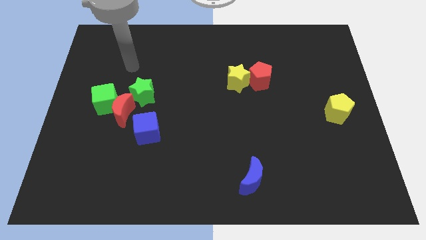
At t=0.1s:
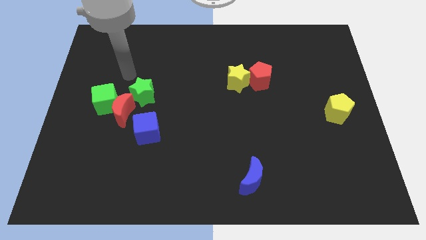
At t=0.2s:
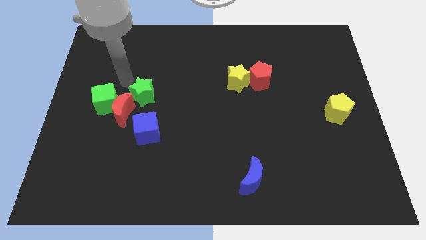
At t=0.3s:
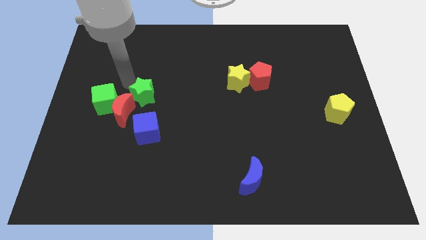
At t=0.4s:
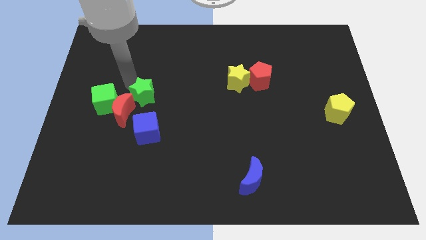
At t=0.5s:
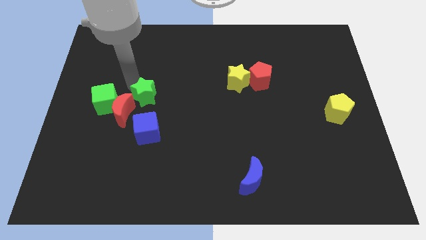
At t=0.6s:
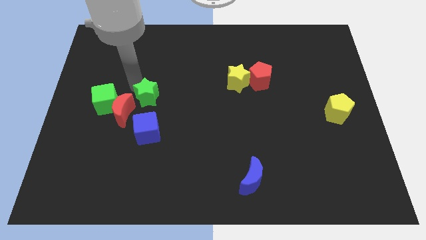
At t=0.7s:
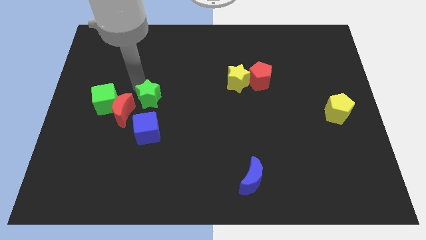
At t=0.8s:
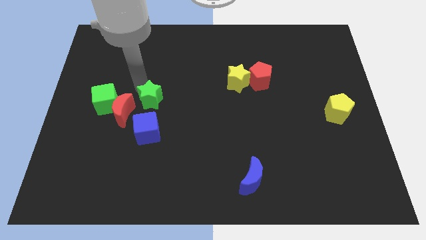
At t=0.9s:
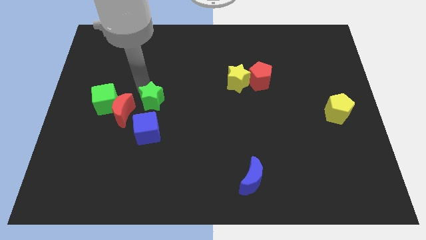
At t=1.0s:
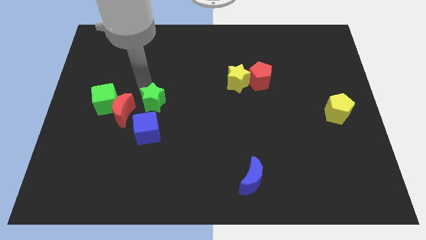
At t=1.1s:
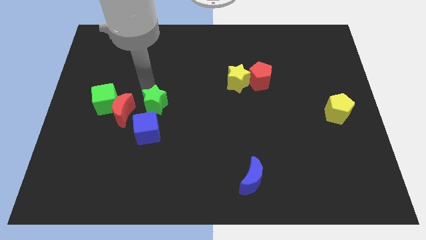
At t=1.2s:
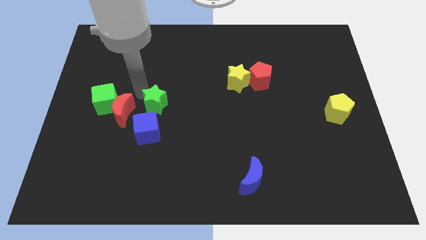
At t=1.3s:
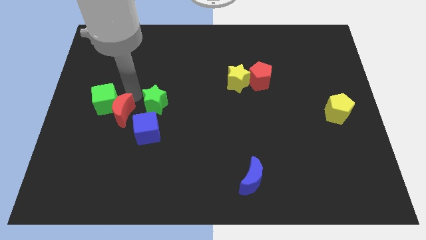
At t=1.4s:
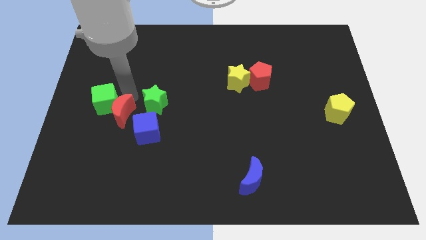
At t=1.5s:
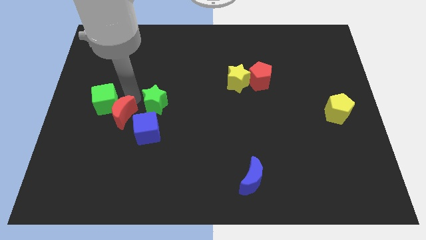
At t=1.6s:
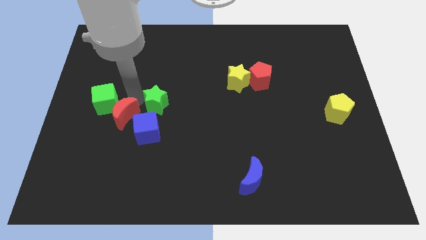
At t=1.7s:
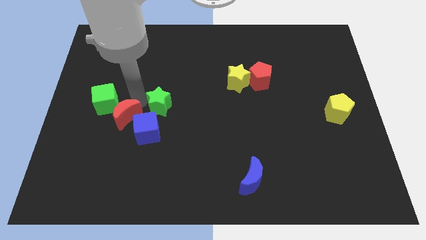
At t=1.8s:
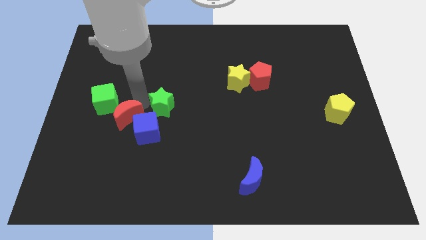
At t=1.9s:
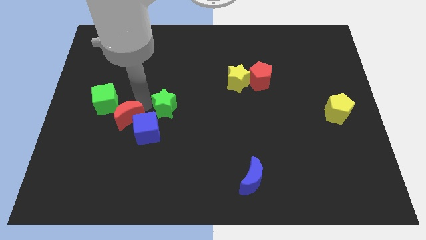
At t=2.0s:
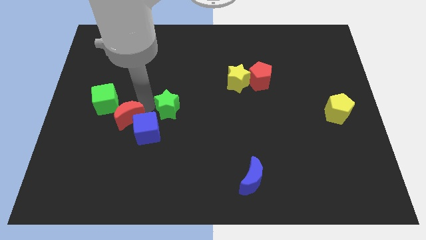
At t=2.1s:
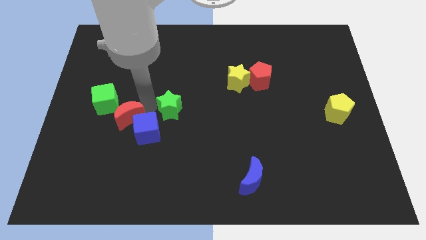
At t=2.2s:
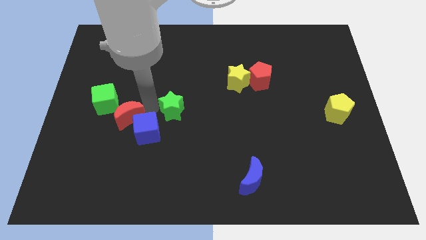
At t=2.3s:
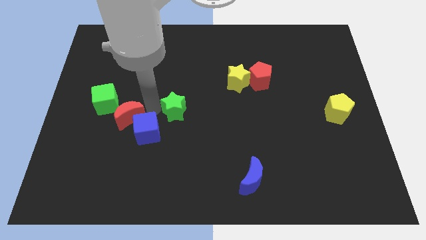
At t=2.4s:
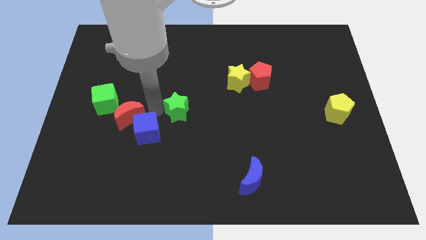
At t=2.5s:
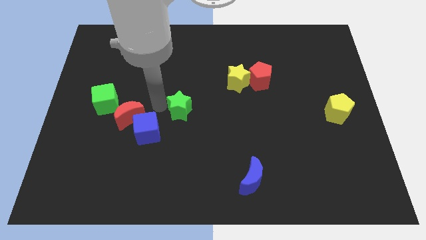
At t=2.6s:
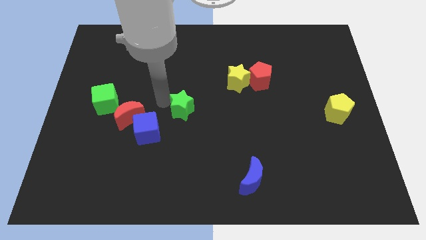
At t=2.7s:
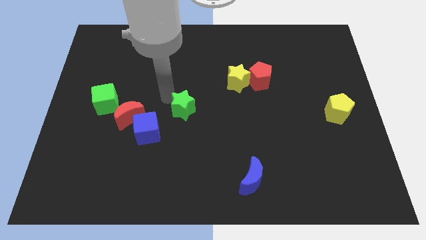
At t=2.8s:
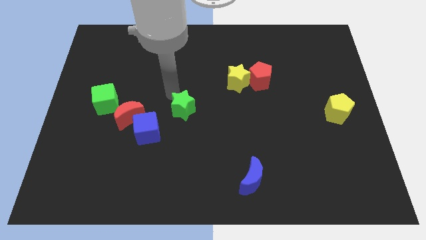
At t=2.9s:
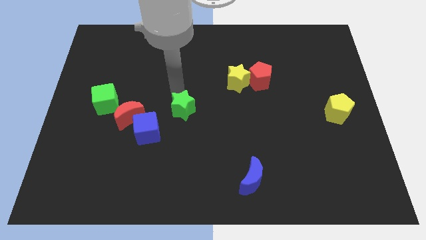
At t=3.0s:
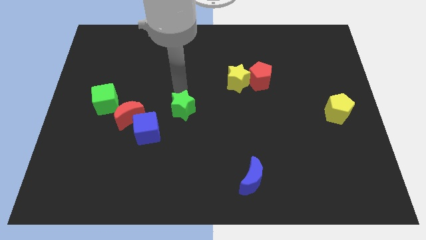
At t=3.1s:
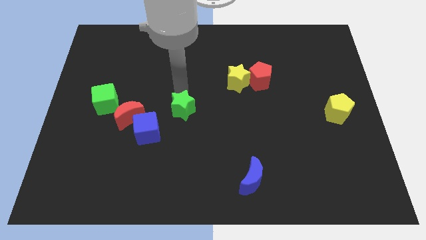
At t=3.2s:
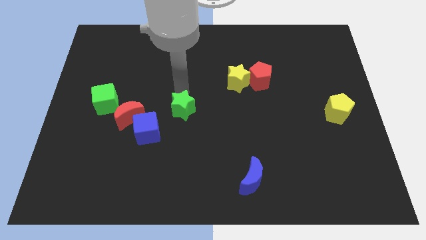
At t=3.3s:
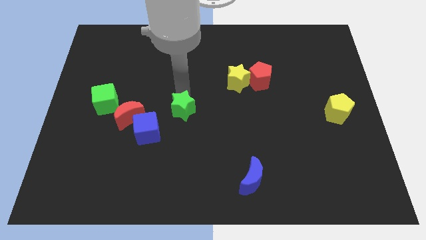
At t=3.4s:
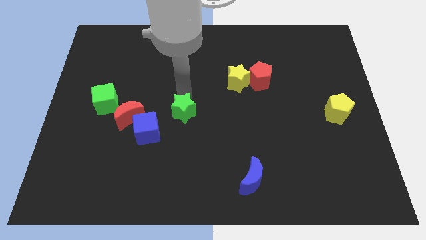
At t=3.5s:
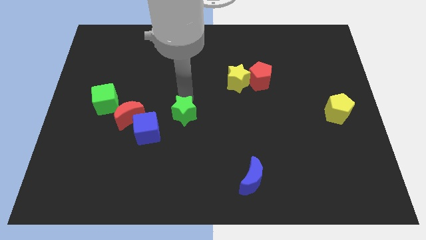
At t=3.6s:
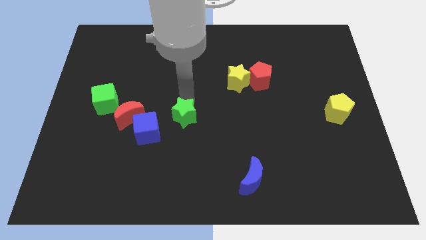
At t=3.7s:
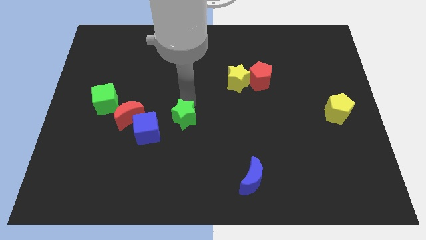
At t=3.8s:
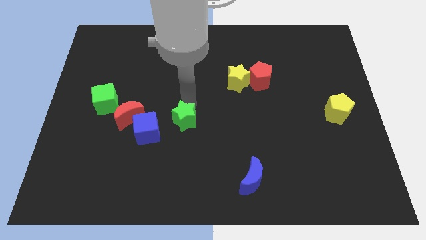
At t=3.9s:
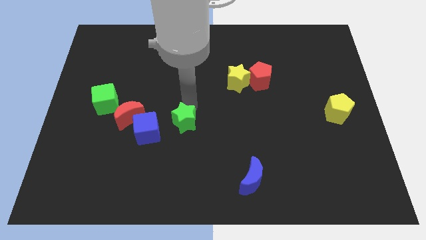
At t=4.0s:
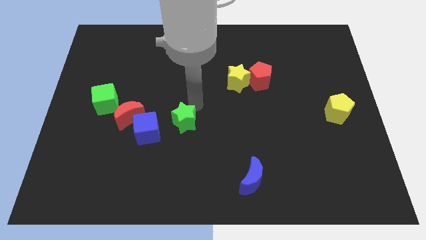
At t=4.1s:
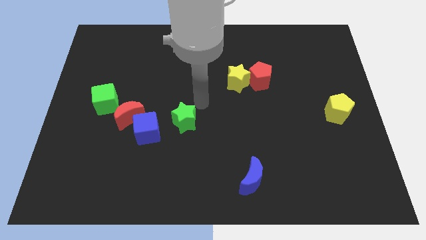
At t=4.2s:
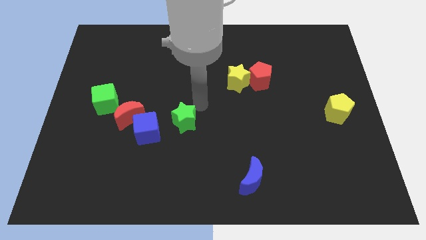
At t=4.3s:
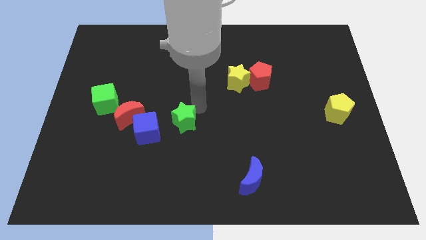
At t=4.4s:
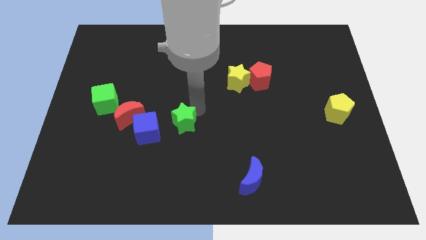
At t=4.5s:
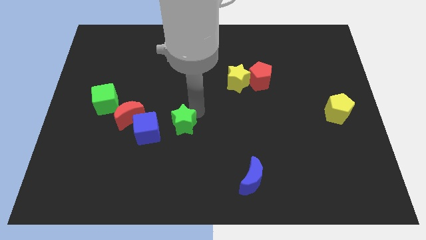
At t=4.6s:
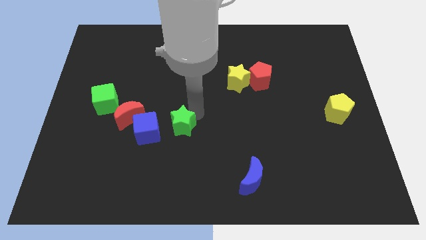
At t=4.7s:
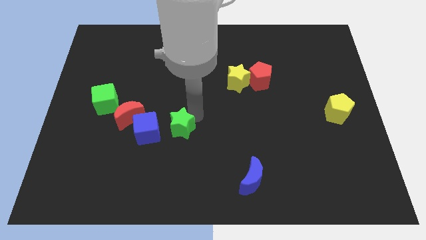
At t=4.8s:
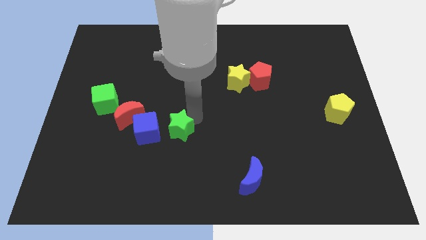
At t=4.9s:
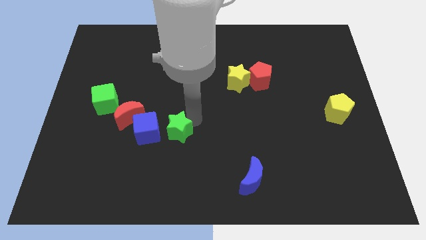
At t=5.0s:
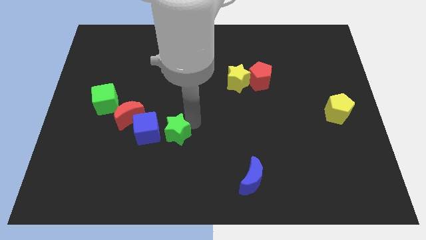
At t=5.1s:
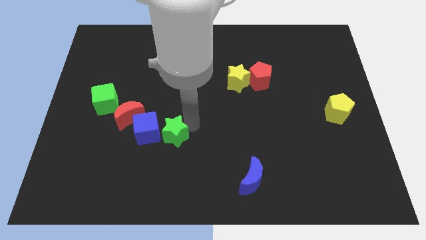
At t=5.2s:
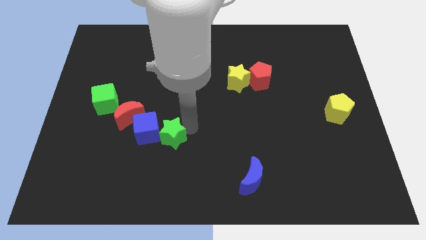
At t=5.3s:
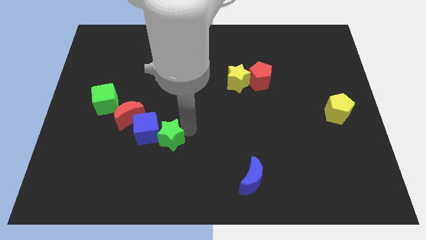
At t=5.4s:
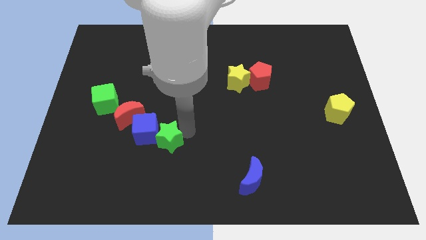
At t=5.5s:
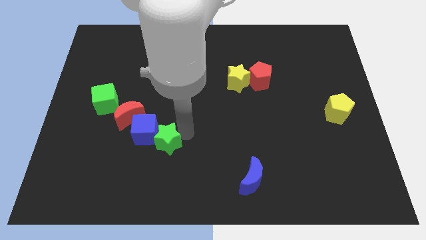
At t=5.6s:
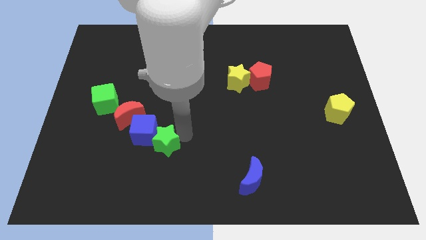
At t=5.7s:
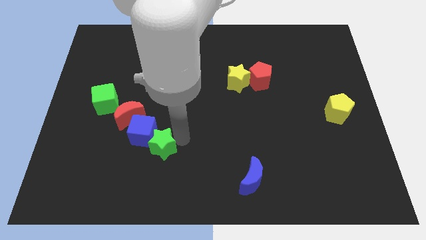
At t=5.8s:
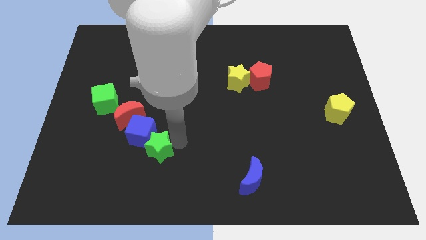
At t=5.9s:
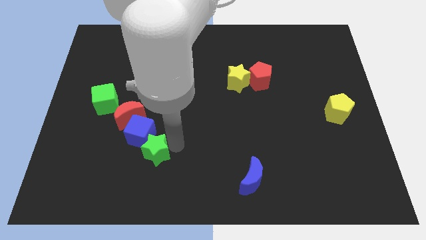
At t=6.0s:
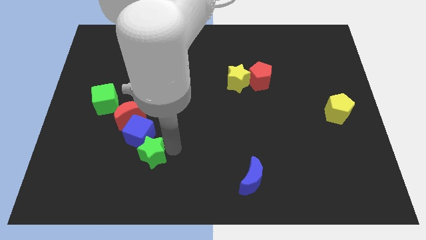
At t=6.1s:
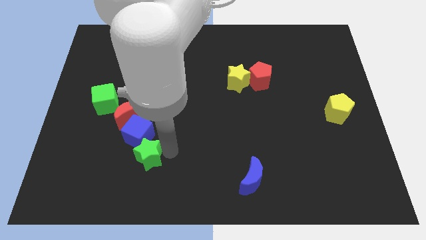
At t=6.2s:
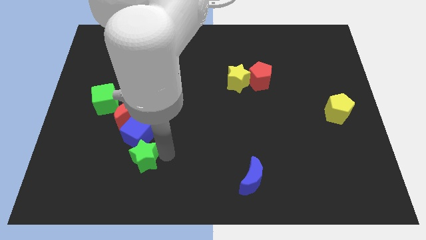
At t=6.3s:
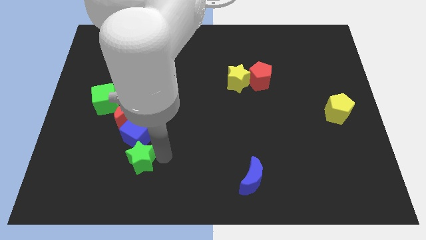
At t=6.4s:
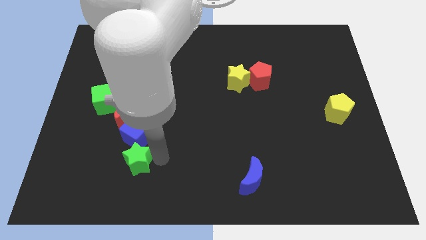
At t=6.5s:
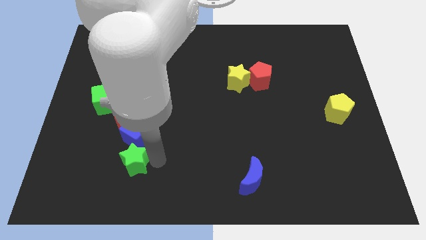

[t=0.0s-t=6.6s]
push the green star diagonally down and to the left of the blue cube
